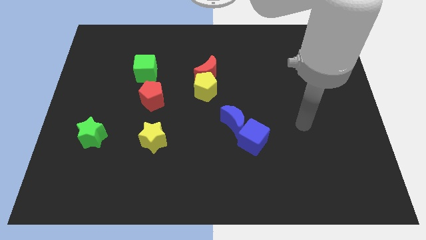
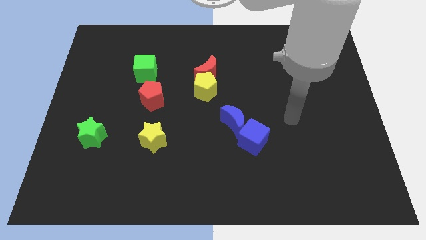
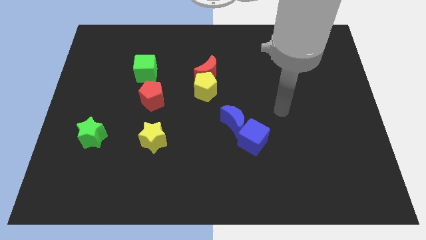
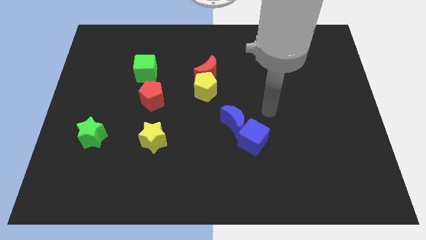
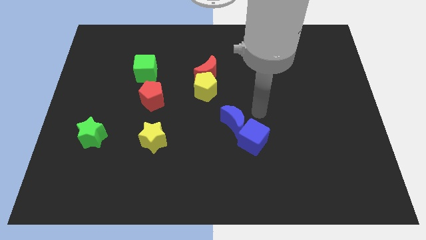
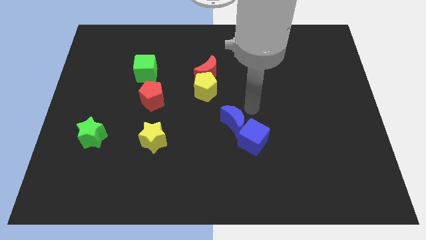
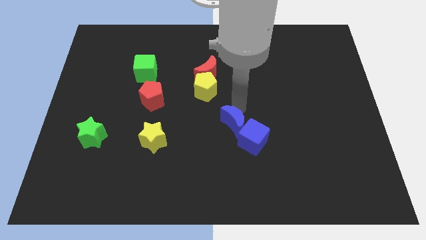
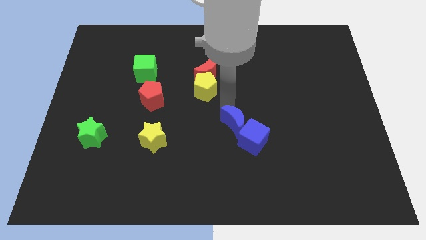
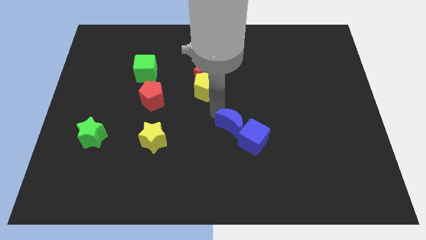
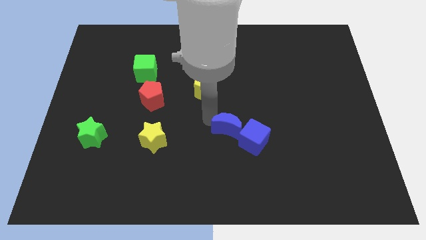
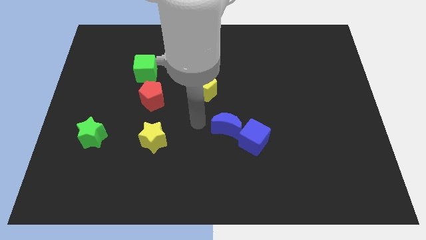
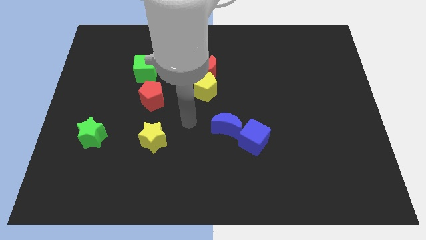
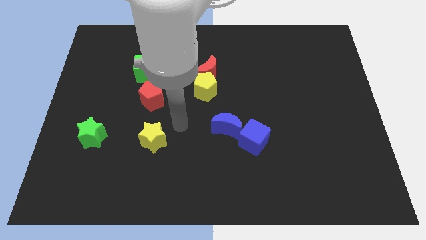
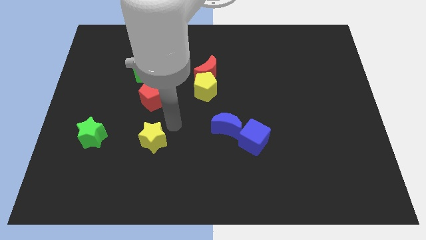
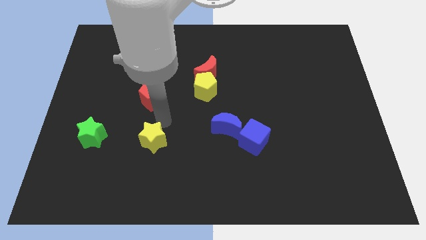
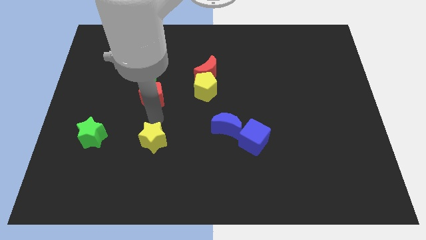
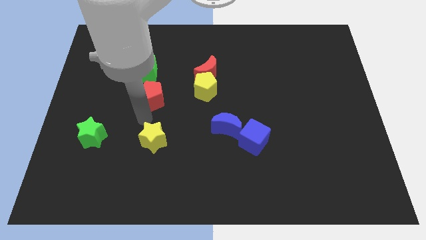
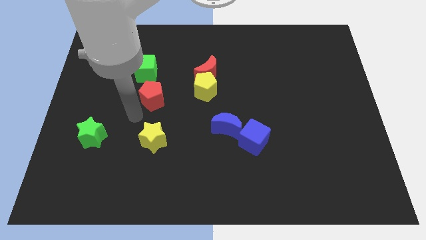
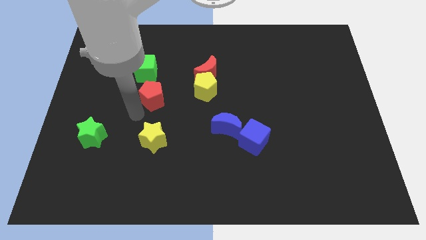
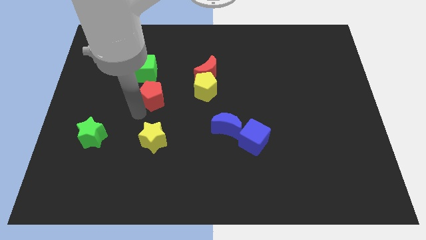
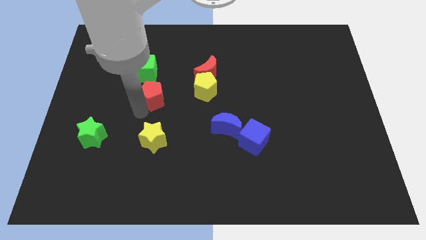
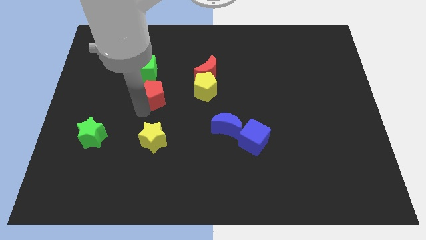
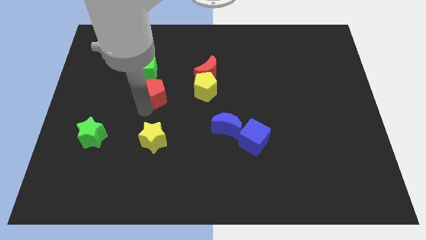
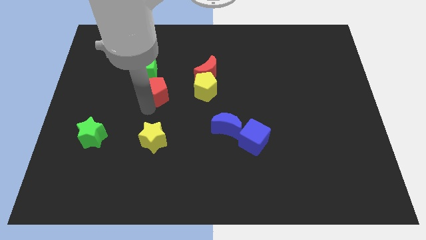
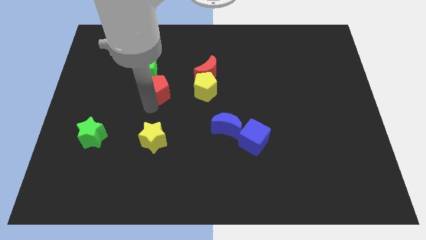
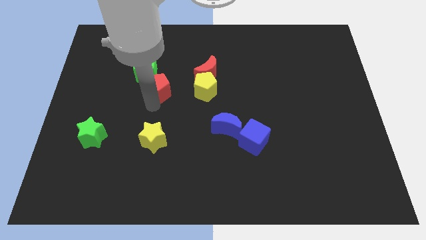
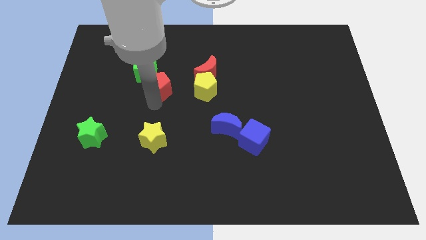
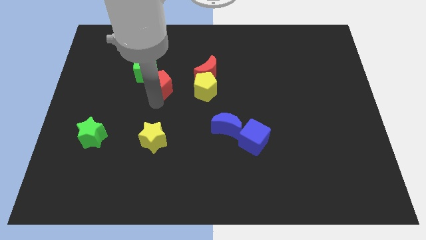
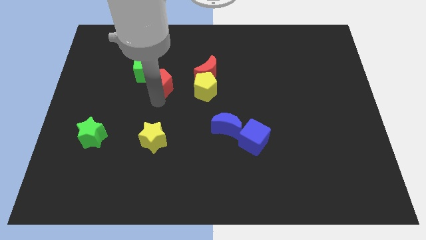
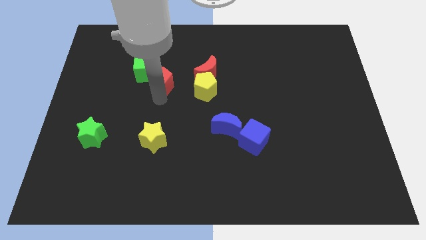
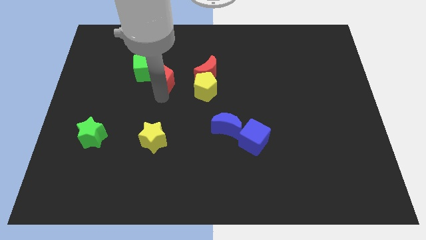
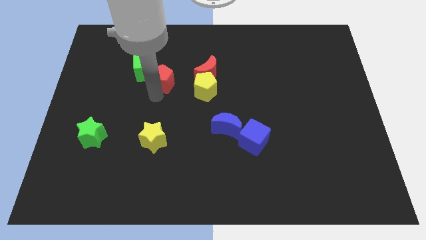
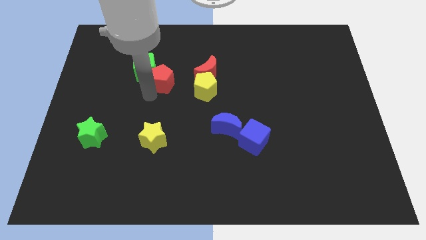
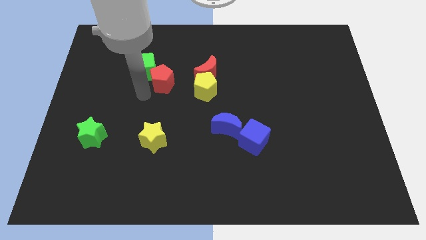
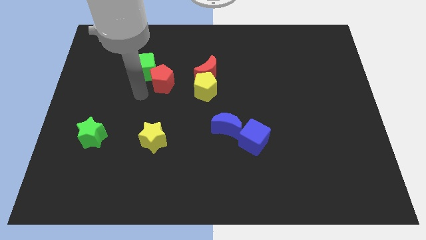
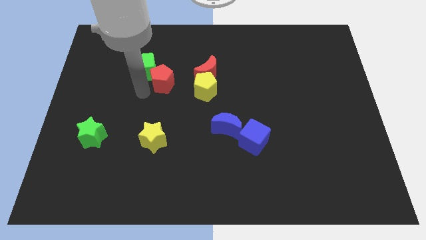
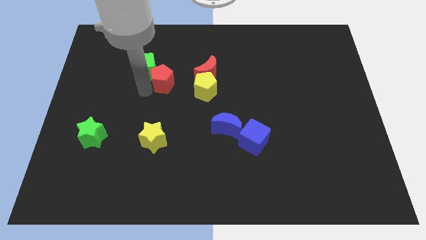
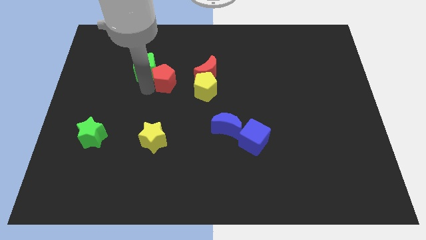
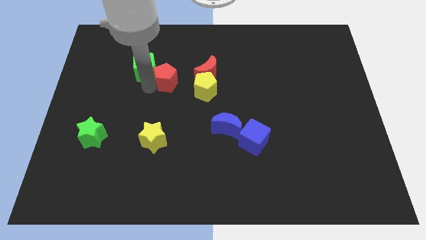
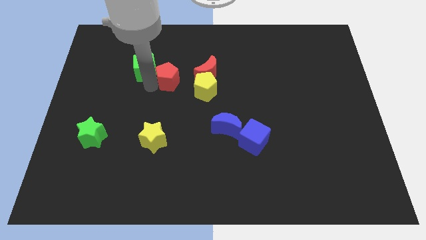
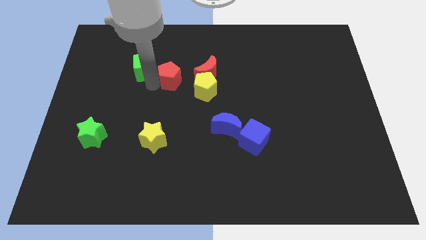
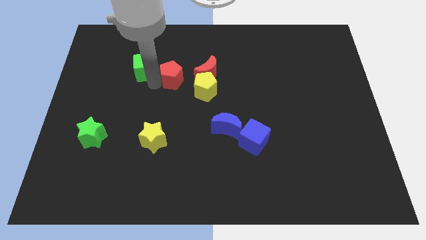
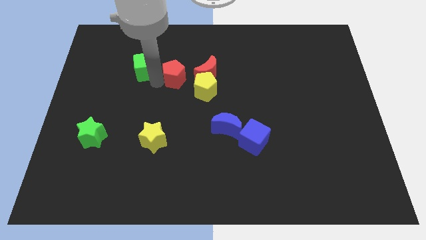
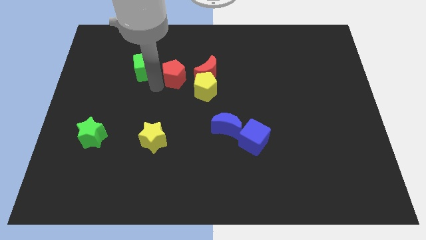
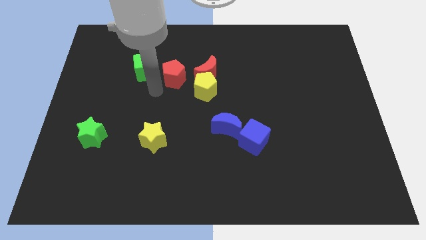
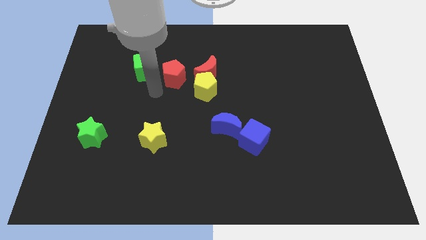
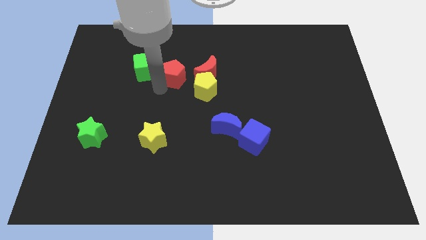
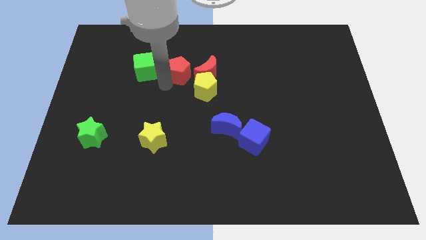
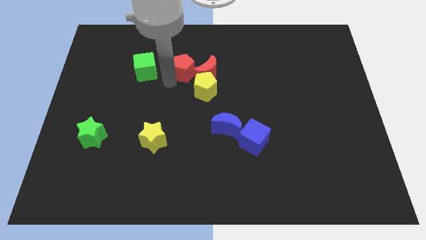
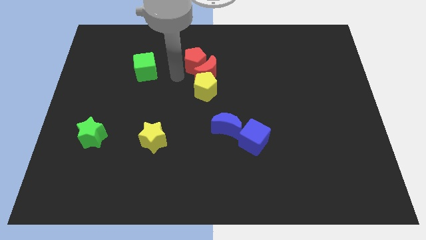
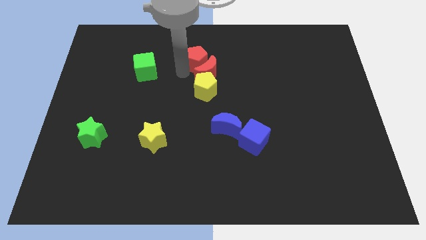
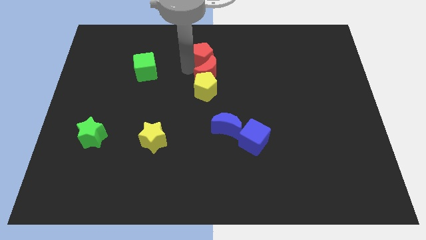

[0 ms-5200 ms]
move the red pentagon to the top right side of the red moon

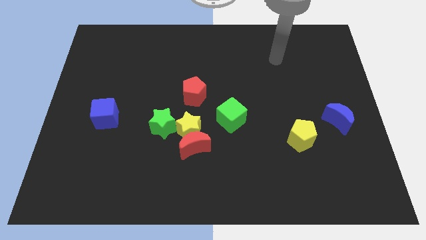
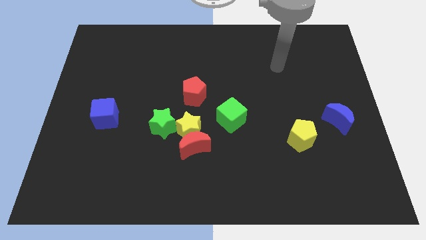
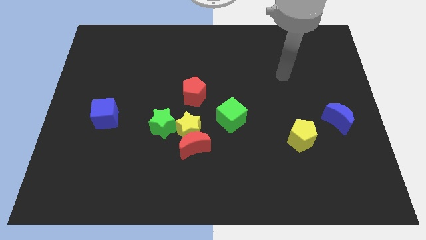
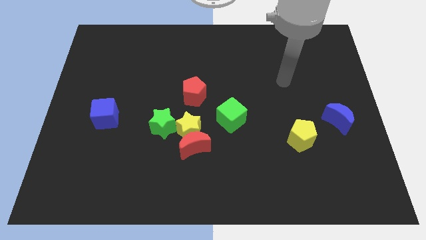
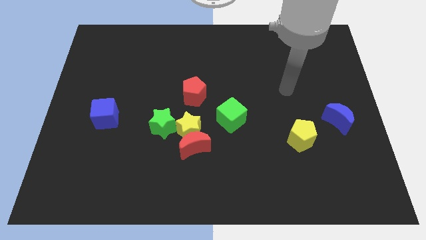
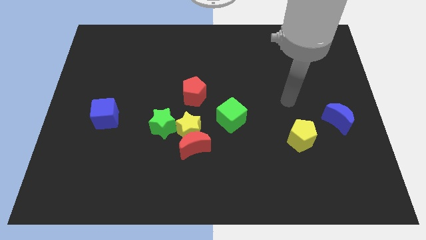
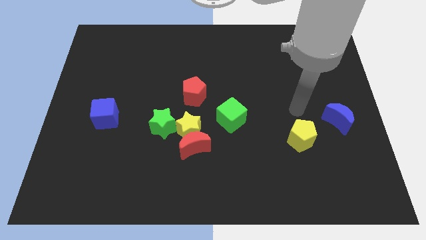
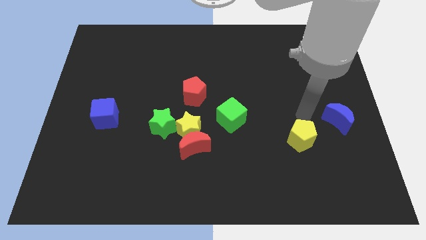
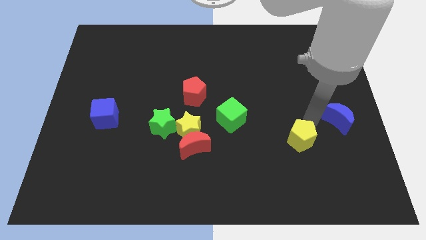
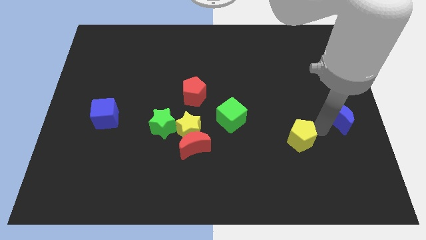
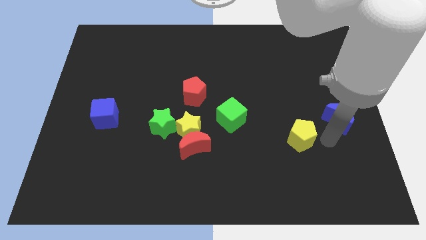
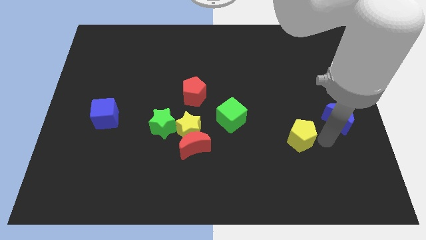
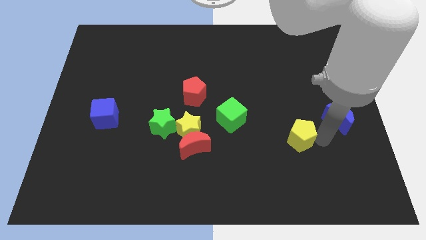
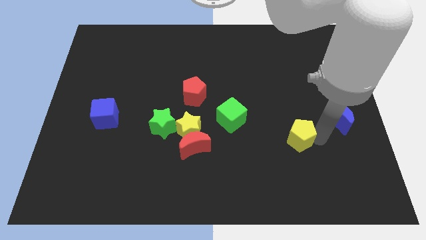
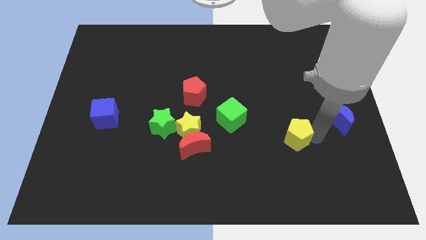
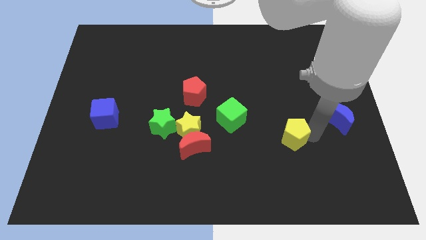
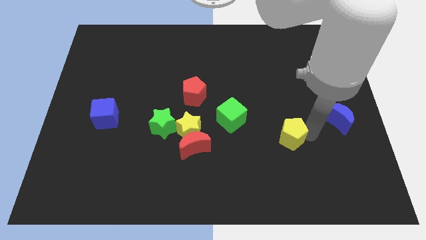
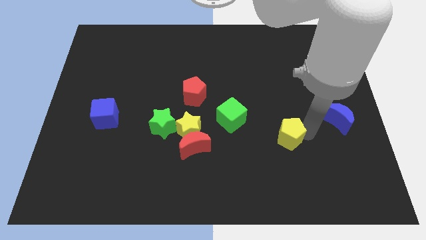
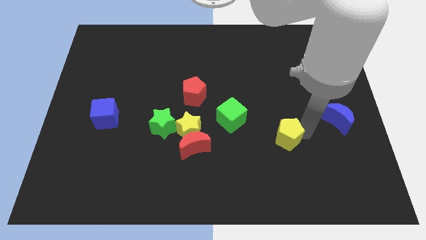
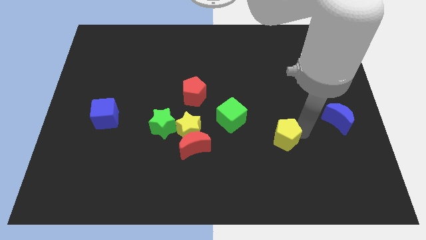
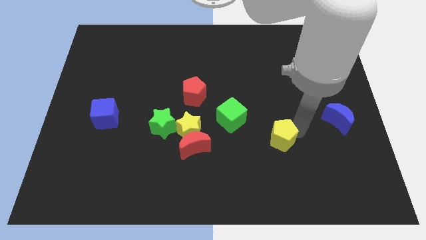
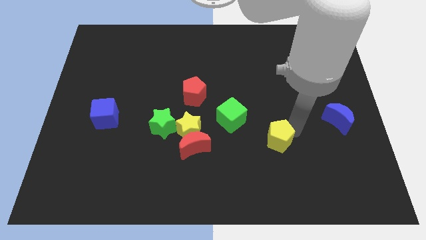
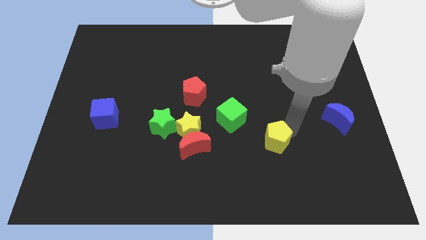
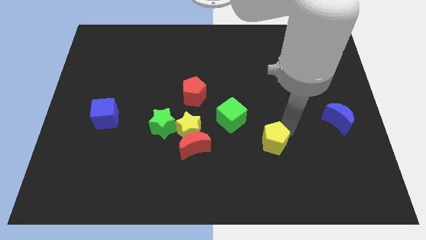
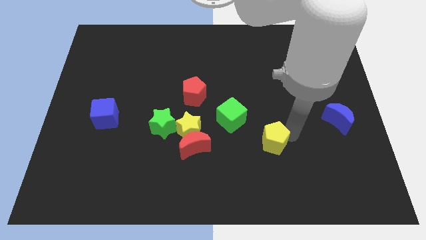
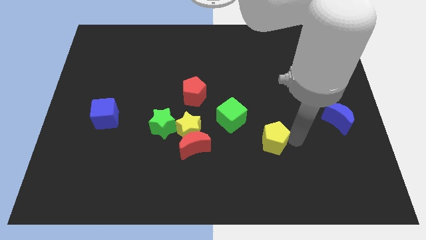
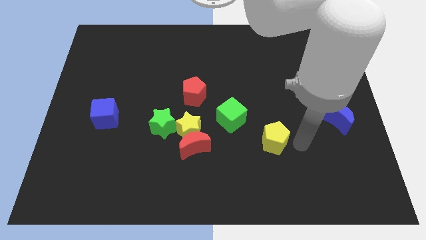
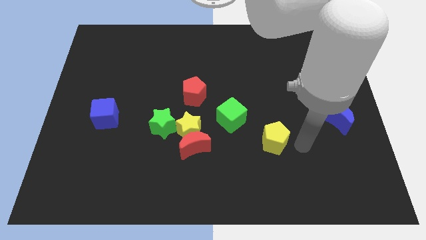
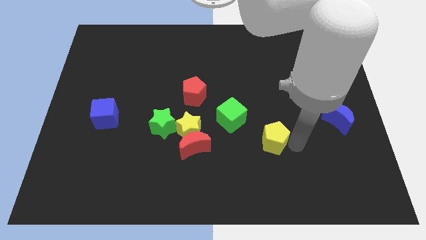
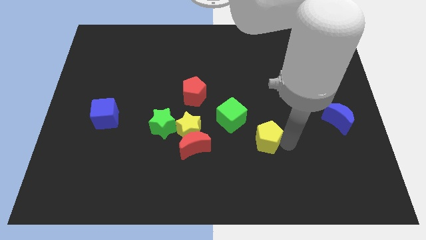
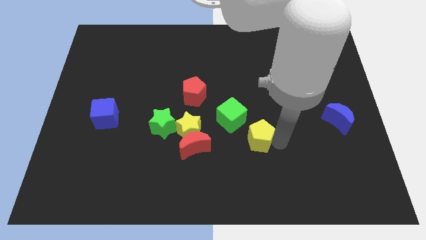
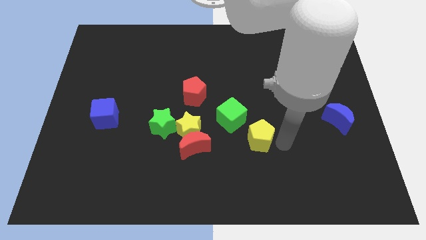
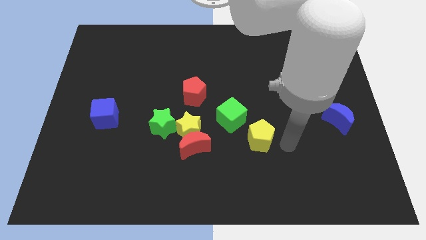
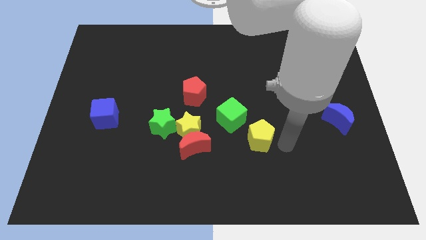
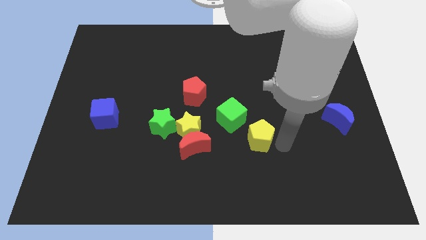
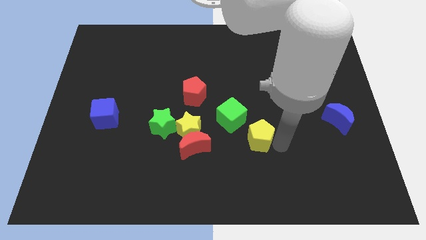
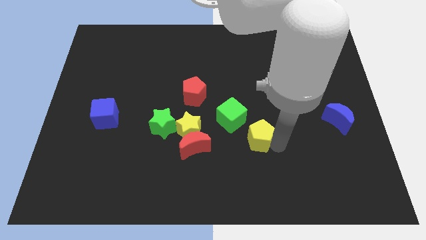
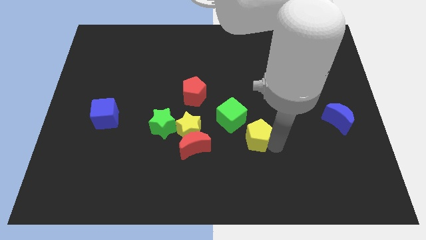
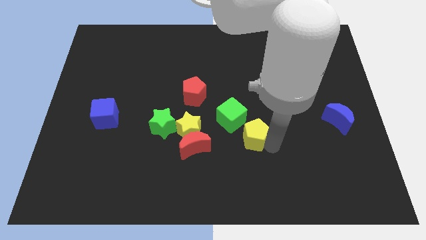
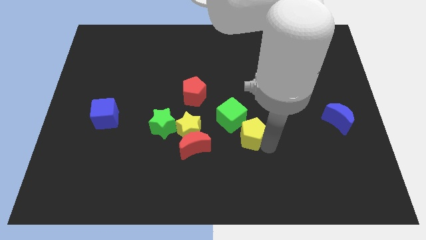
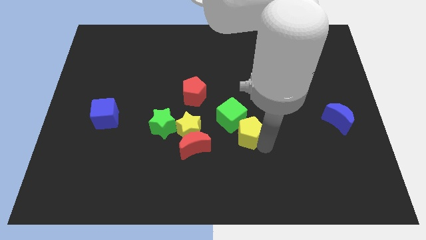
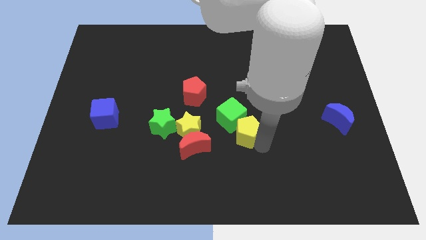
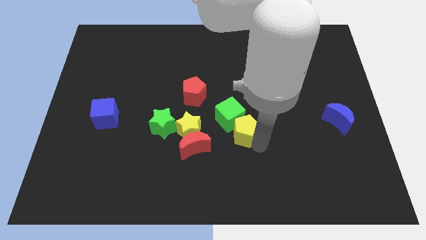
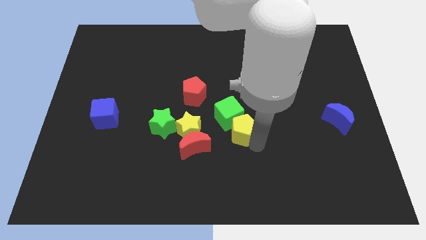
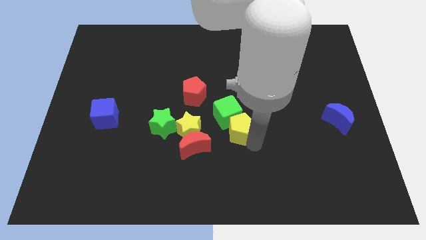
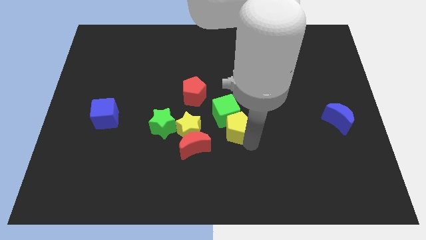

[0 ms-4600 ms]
slide the yellow pentagon to the right side of the green star
